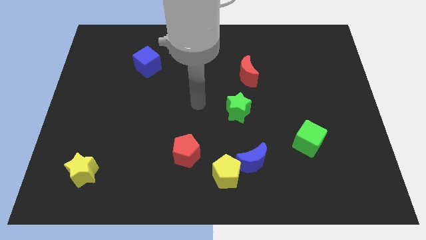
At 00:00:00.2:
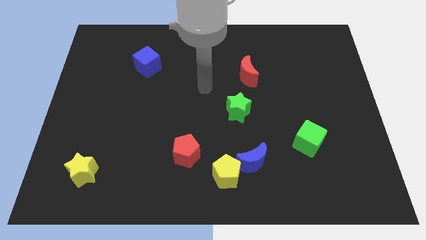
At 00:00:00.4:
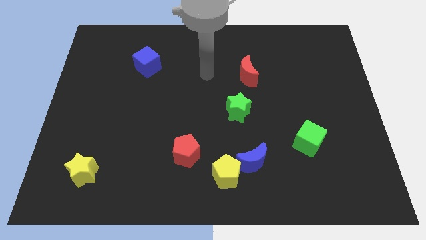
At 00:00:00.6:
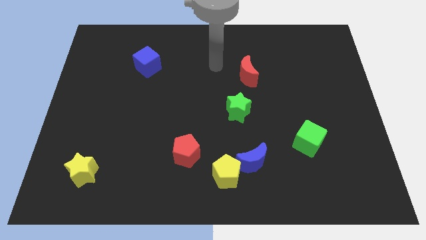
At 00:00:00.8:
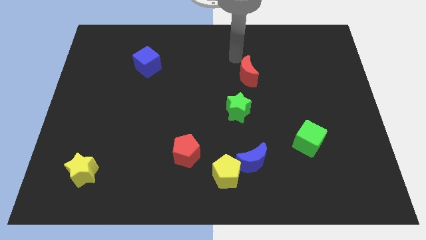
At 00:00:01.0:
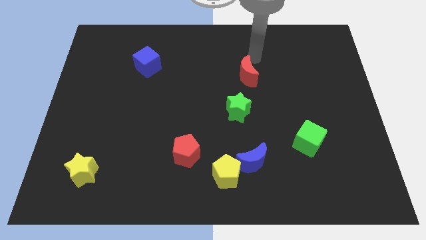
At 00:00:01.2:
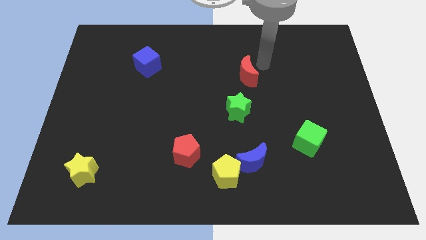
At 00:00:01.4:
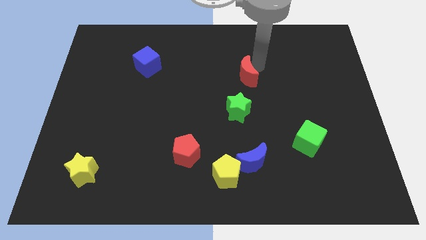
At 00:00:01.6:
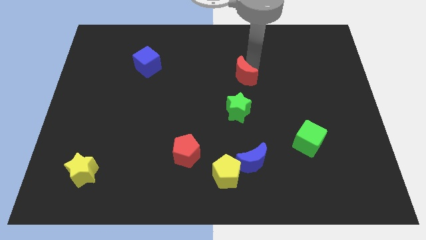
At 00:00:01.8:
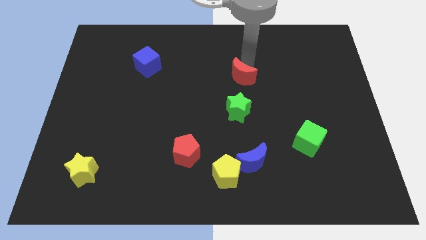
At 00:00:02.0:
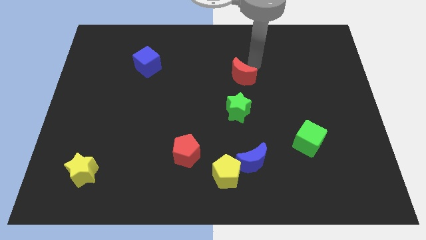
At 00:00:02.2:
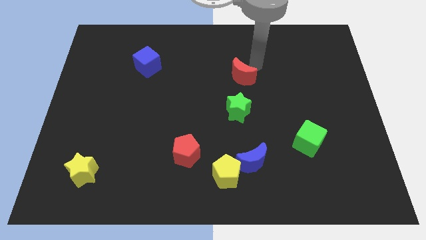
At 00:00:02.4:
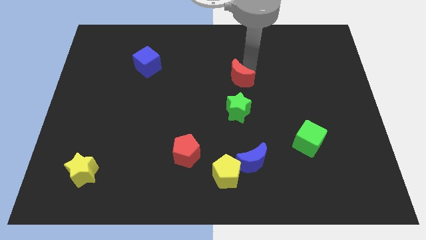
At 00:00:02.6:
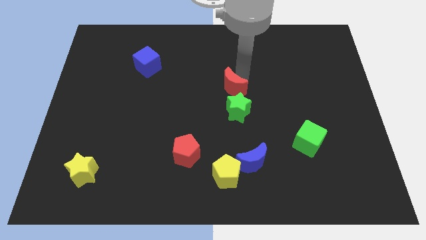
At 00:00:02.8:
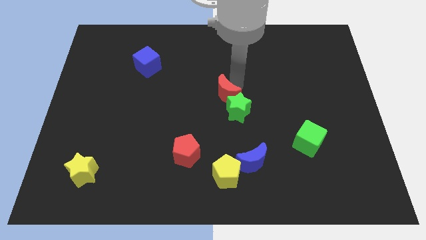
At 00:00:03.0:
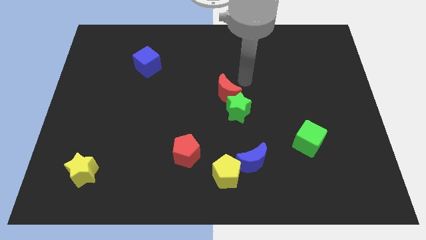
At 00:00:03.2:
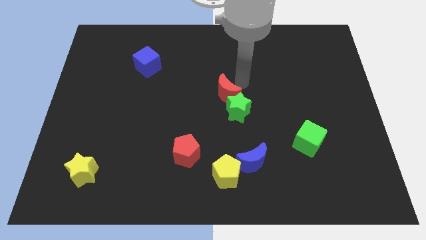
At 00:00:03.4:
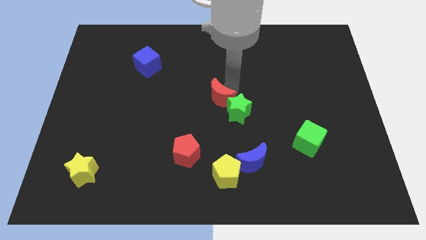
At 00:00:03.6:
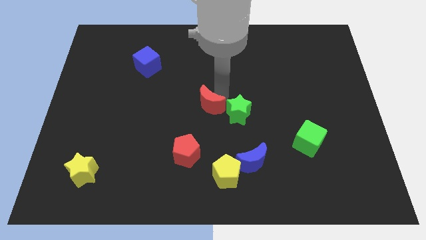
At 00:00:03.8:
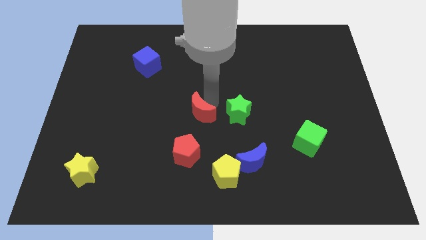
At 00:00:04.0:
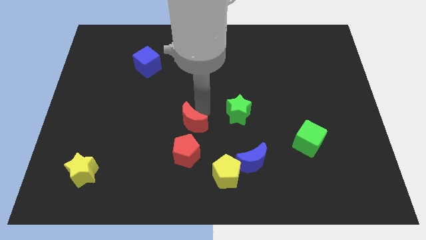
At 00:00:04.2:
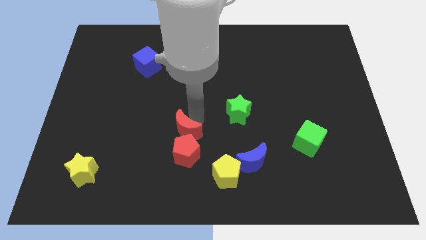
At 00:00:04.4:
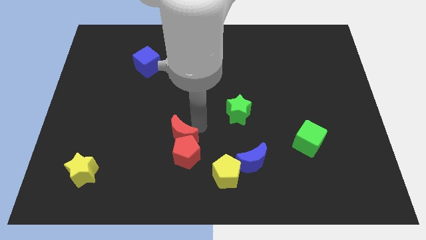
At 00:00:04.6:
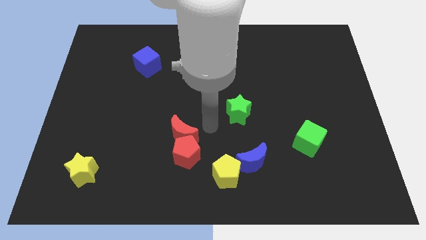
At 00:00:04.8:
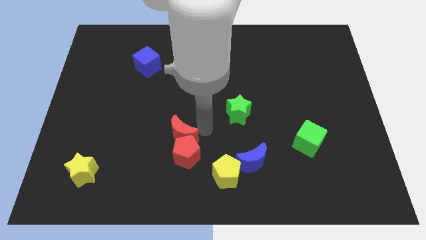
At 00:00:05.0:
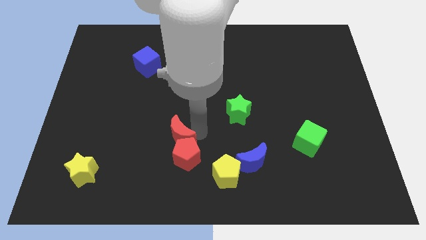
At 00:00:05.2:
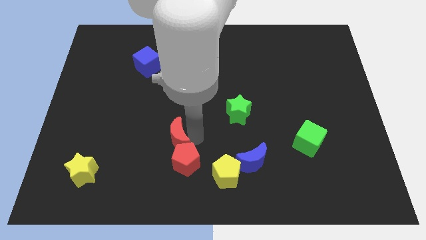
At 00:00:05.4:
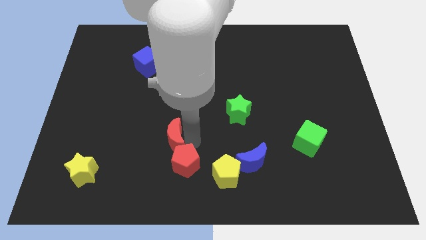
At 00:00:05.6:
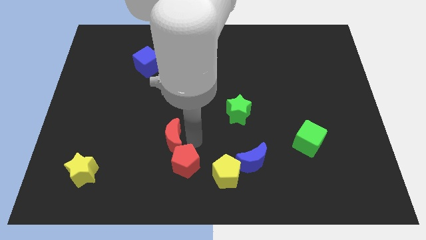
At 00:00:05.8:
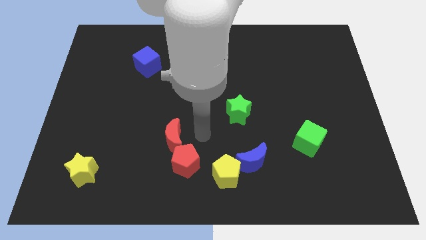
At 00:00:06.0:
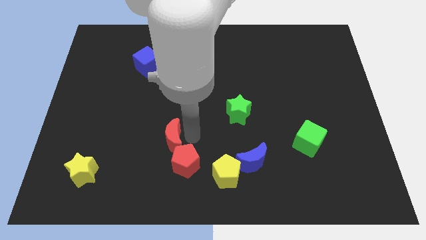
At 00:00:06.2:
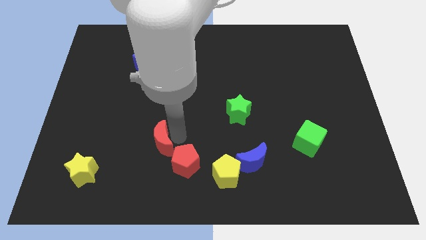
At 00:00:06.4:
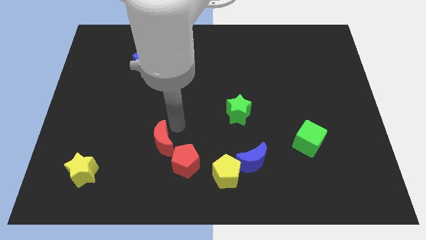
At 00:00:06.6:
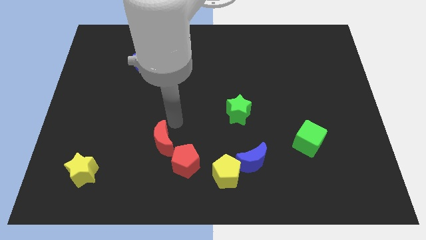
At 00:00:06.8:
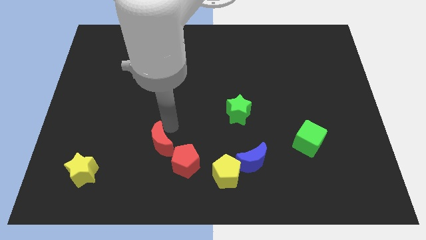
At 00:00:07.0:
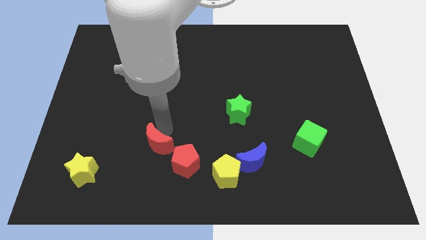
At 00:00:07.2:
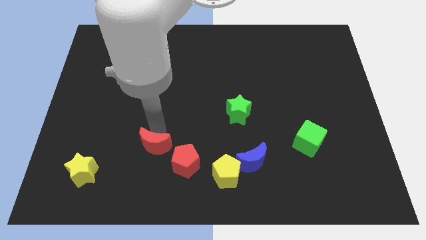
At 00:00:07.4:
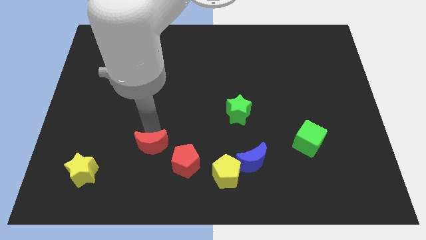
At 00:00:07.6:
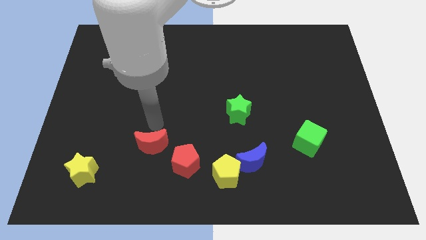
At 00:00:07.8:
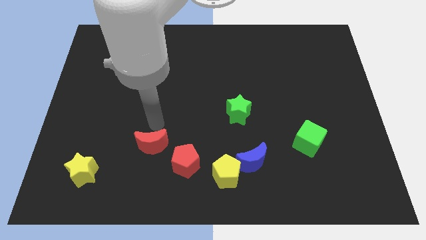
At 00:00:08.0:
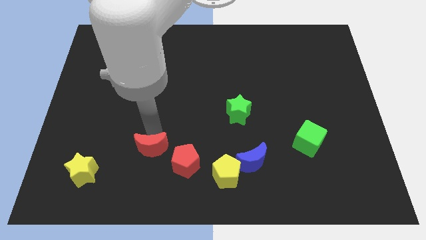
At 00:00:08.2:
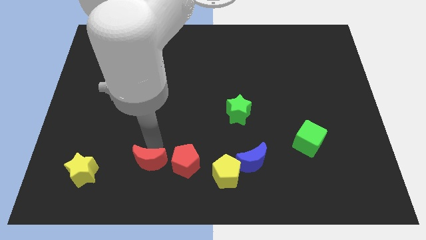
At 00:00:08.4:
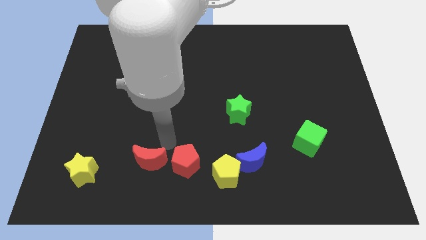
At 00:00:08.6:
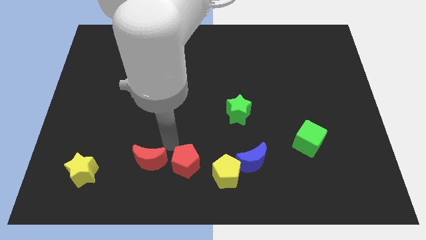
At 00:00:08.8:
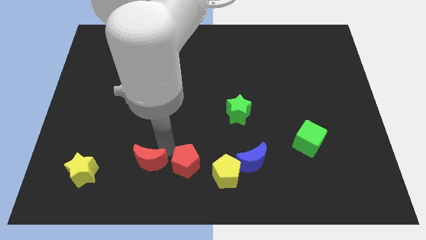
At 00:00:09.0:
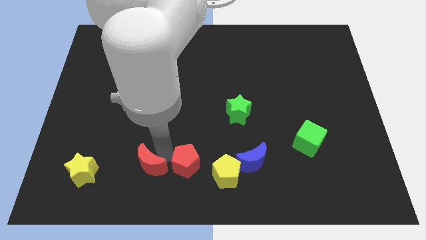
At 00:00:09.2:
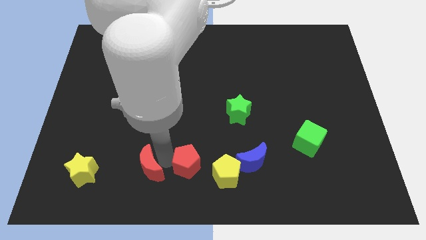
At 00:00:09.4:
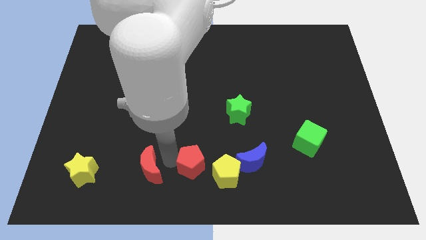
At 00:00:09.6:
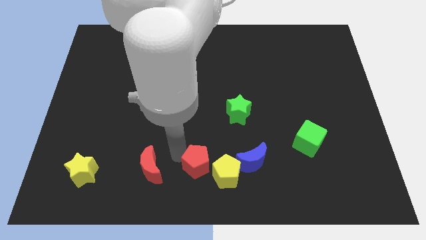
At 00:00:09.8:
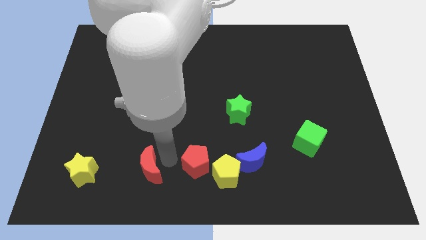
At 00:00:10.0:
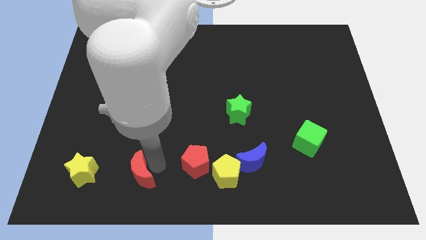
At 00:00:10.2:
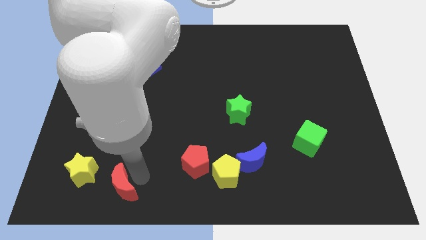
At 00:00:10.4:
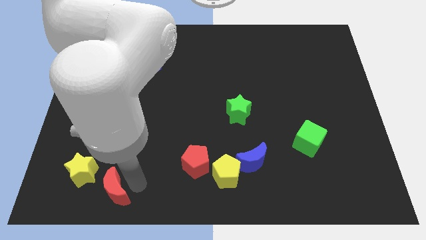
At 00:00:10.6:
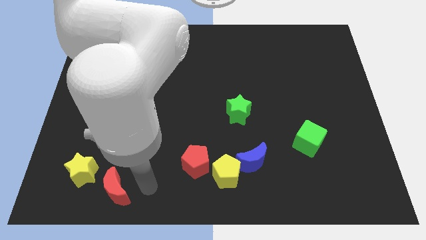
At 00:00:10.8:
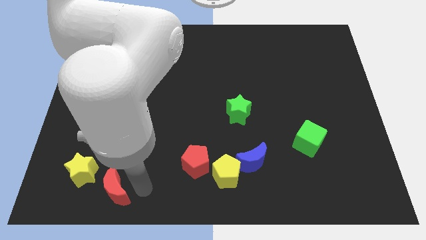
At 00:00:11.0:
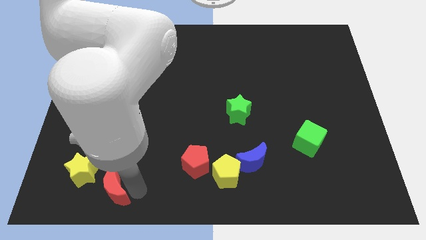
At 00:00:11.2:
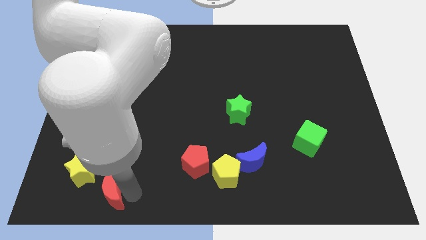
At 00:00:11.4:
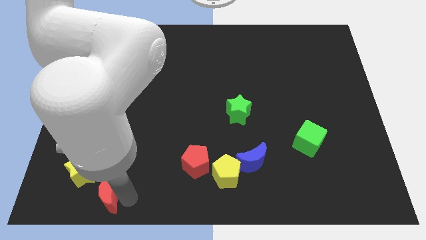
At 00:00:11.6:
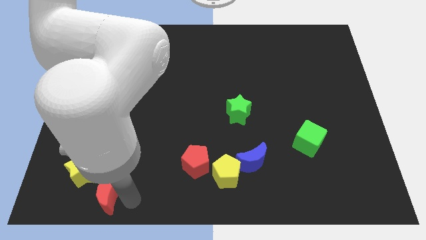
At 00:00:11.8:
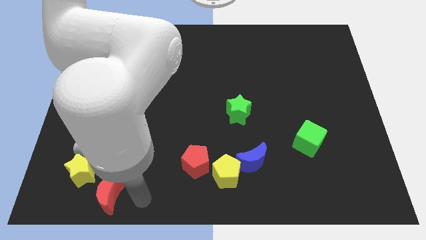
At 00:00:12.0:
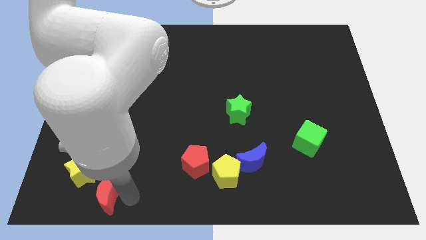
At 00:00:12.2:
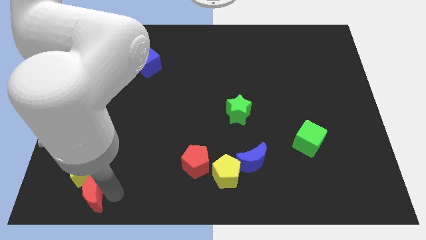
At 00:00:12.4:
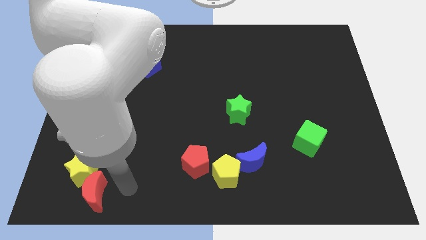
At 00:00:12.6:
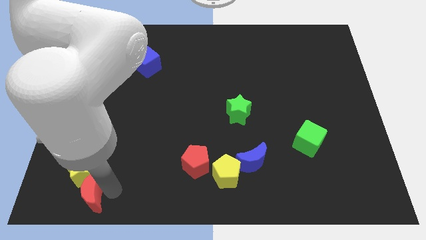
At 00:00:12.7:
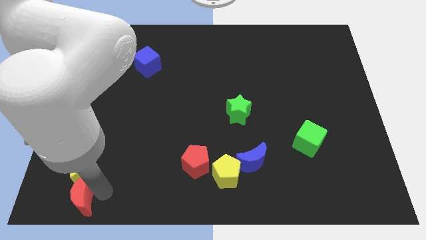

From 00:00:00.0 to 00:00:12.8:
slide the red moon to the lower left corner

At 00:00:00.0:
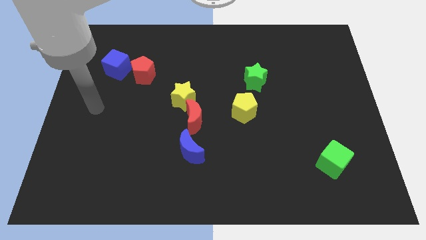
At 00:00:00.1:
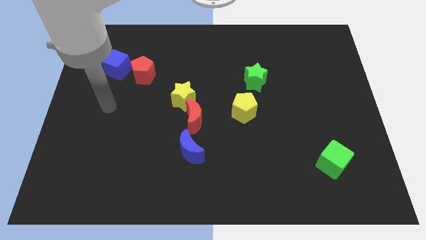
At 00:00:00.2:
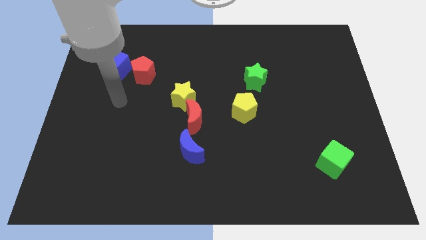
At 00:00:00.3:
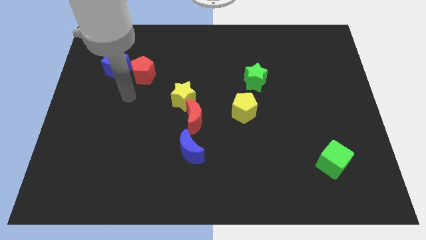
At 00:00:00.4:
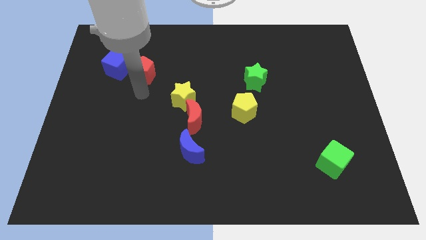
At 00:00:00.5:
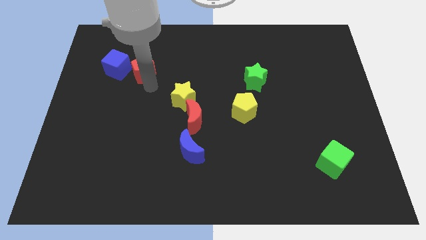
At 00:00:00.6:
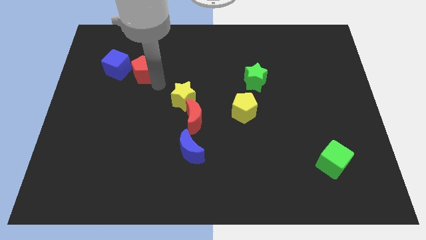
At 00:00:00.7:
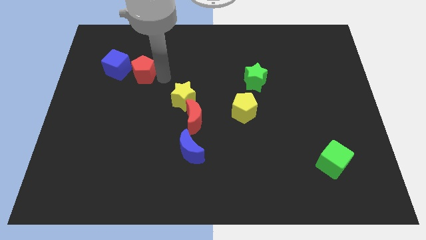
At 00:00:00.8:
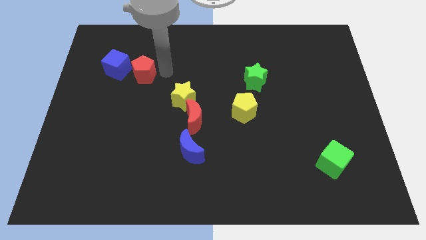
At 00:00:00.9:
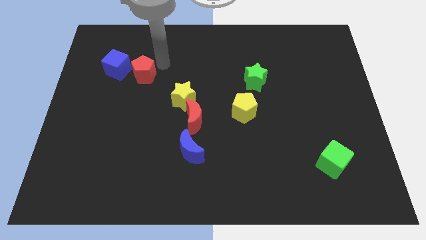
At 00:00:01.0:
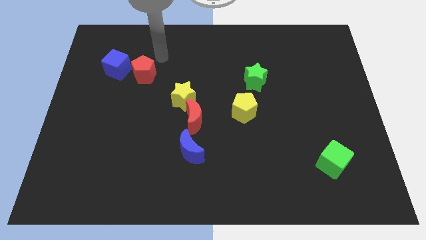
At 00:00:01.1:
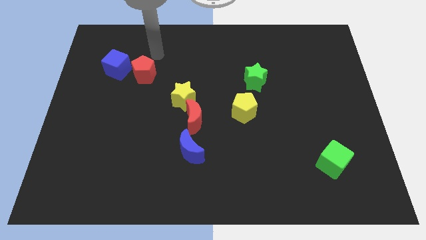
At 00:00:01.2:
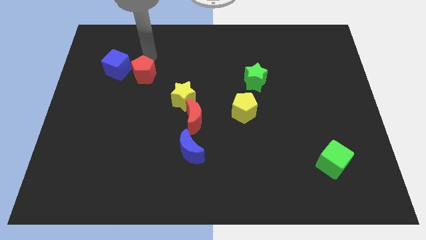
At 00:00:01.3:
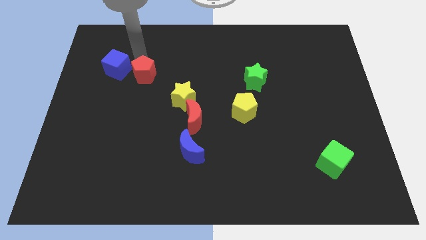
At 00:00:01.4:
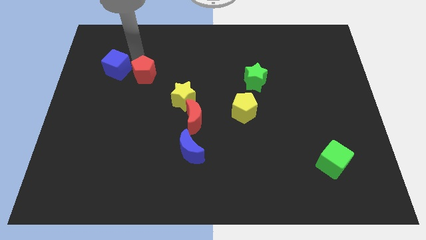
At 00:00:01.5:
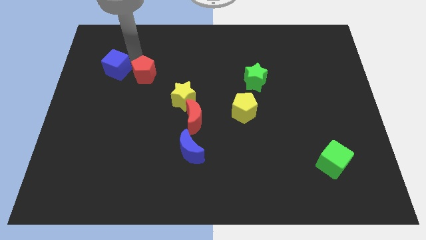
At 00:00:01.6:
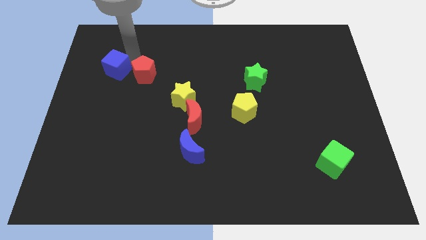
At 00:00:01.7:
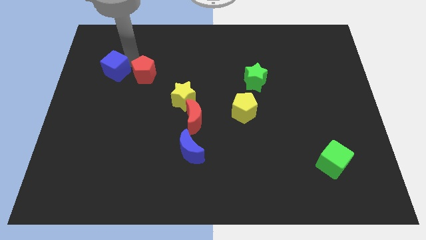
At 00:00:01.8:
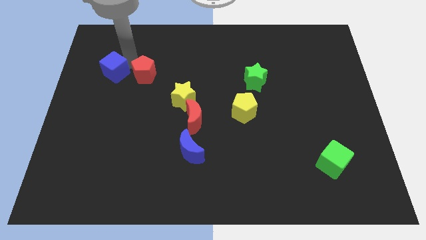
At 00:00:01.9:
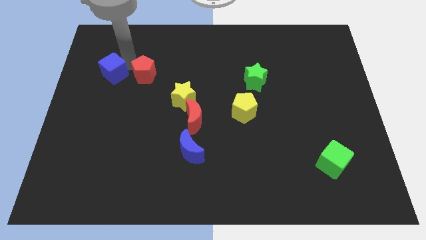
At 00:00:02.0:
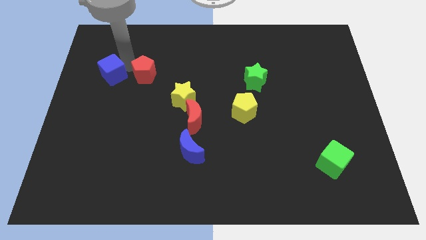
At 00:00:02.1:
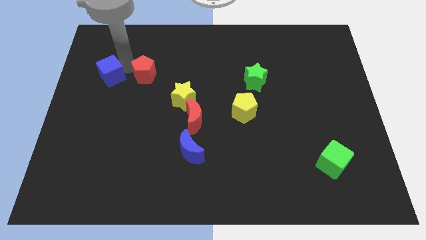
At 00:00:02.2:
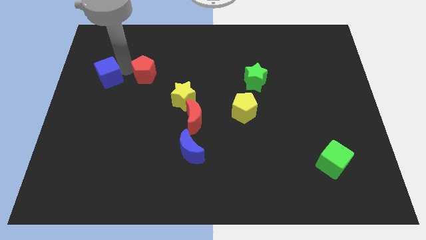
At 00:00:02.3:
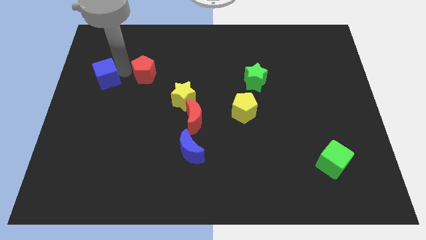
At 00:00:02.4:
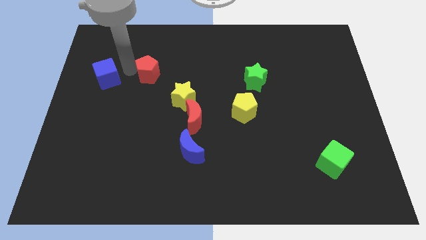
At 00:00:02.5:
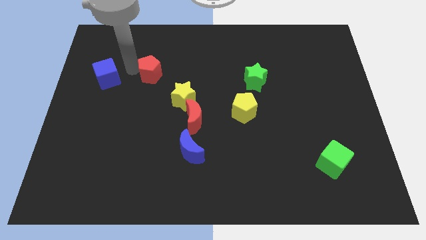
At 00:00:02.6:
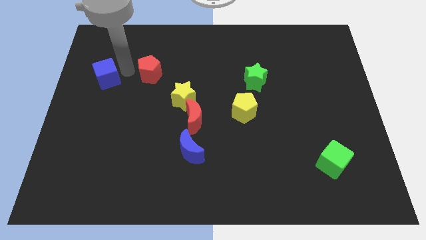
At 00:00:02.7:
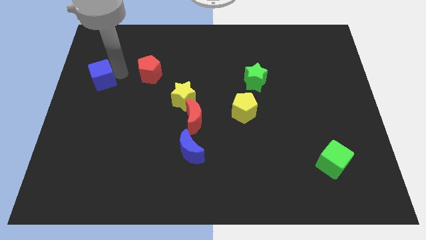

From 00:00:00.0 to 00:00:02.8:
slide the blue cube to the center left
